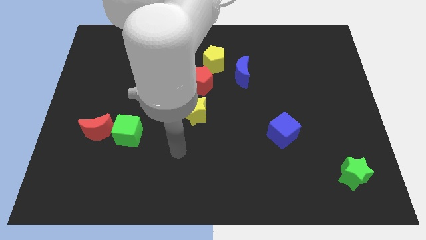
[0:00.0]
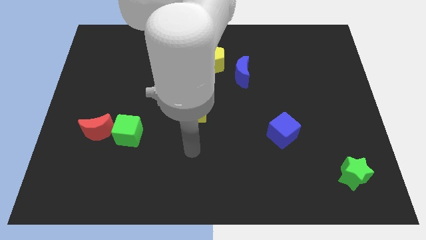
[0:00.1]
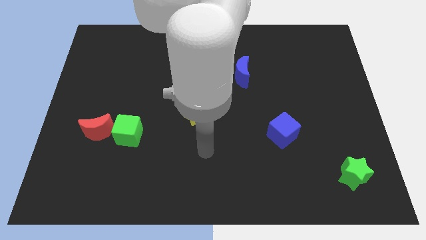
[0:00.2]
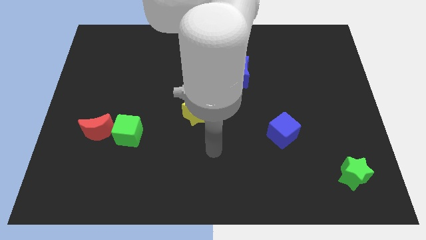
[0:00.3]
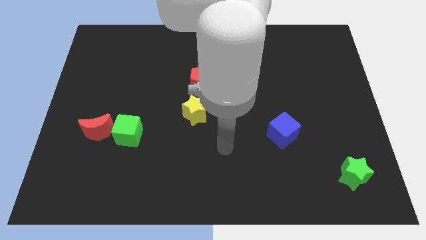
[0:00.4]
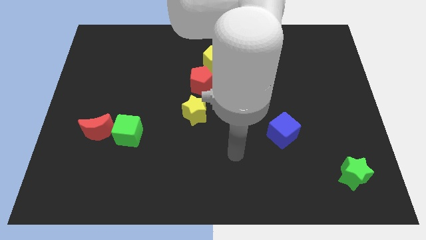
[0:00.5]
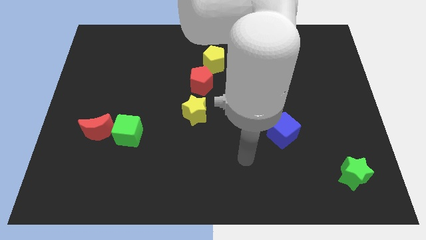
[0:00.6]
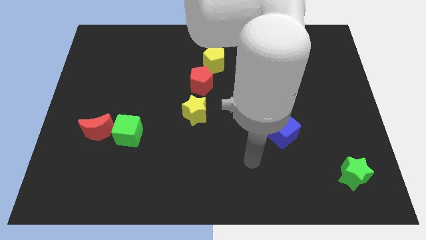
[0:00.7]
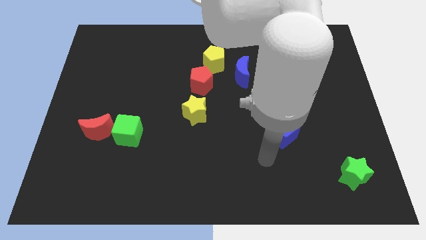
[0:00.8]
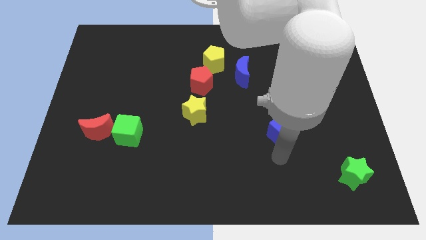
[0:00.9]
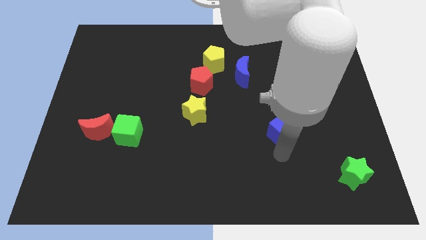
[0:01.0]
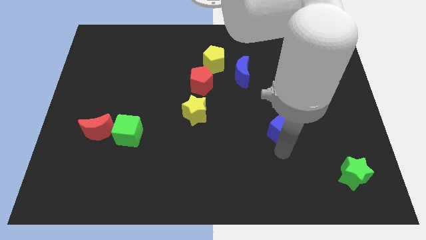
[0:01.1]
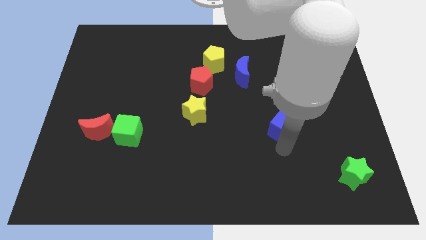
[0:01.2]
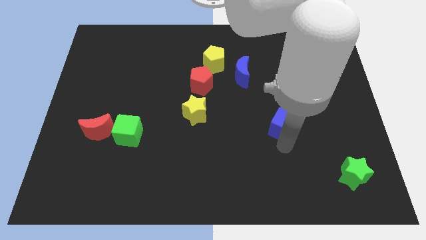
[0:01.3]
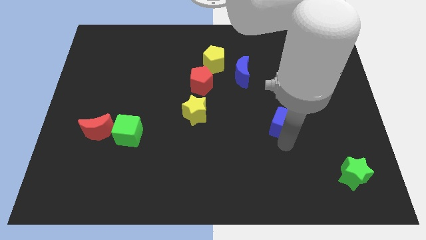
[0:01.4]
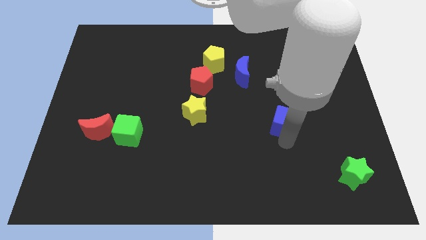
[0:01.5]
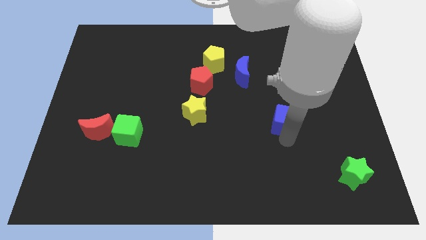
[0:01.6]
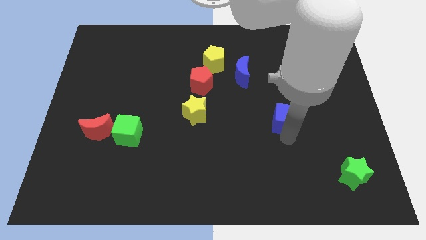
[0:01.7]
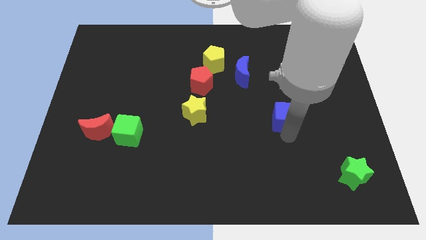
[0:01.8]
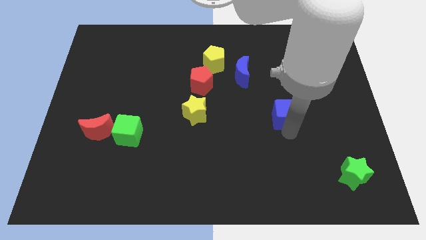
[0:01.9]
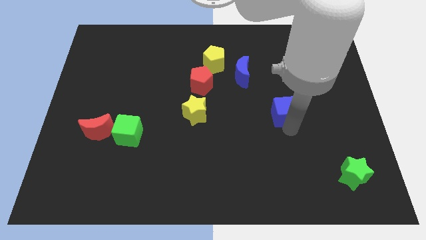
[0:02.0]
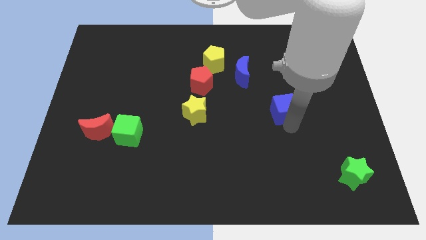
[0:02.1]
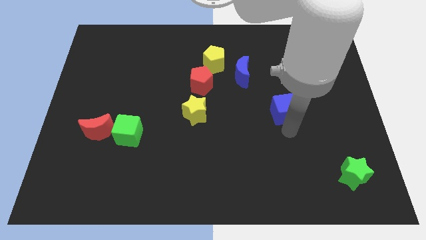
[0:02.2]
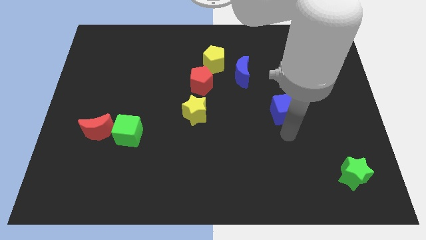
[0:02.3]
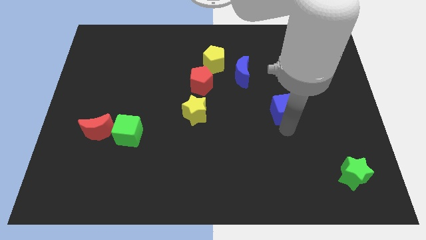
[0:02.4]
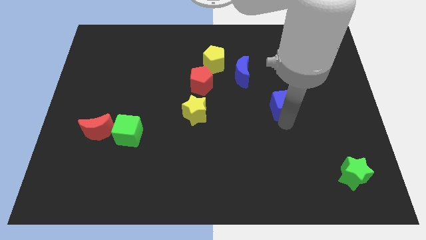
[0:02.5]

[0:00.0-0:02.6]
slightly push the blue cube upwards

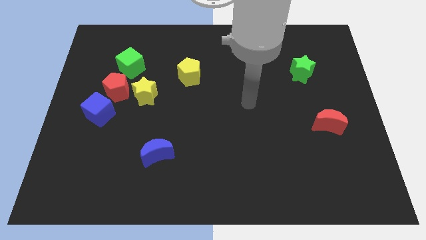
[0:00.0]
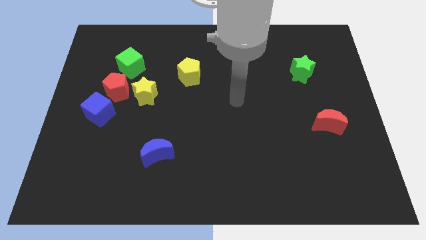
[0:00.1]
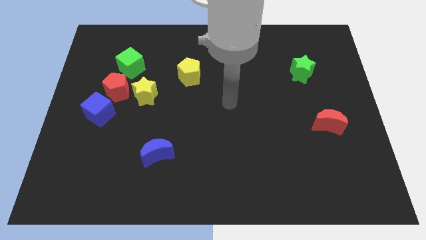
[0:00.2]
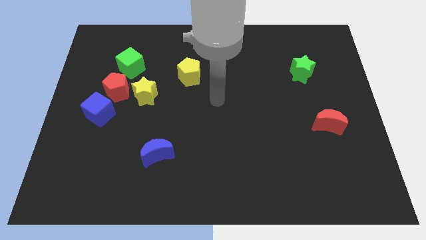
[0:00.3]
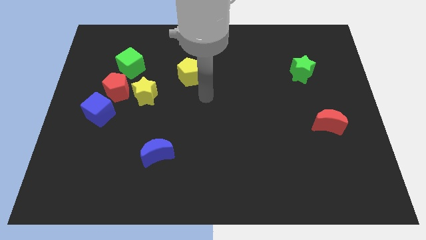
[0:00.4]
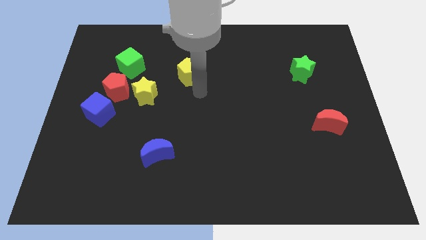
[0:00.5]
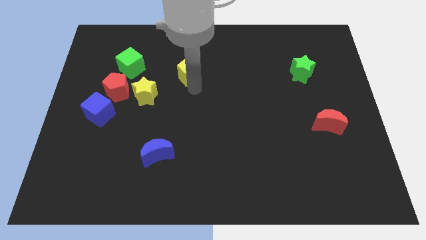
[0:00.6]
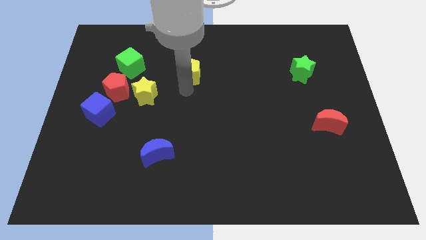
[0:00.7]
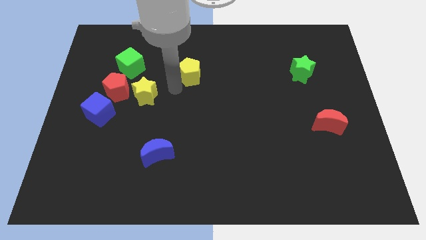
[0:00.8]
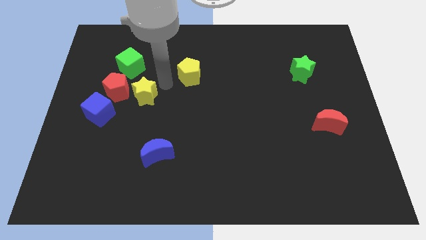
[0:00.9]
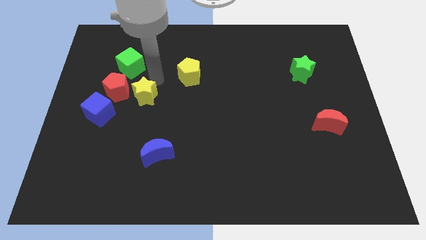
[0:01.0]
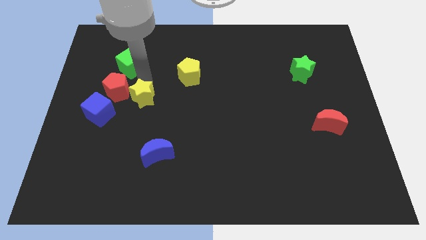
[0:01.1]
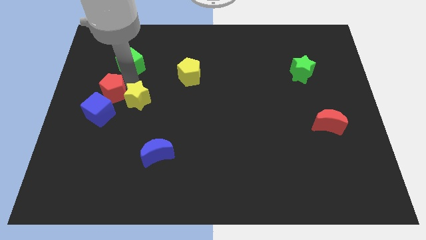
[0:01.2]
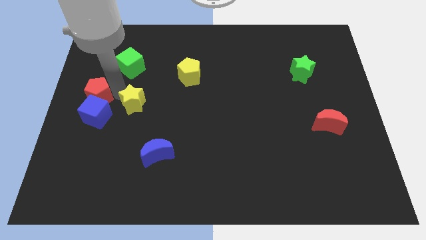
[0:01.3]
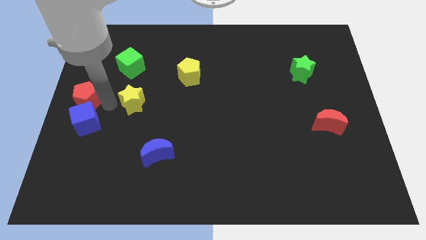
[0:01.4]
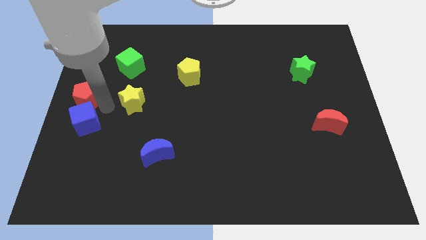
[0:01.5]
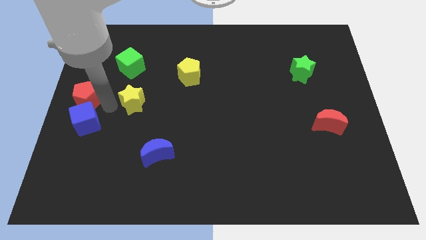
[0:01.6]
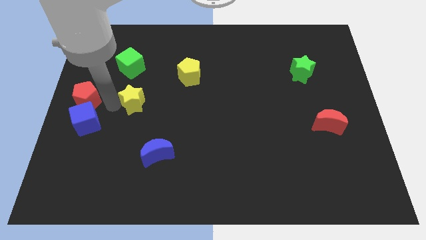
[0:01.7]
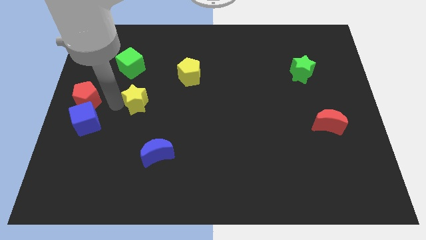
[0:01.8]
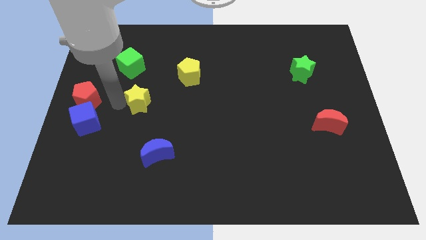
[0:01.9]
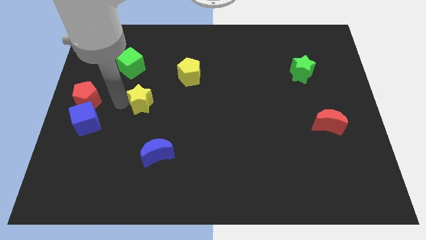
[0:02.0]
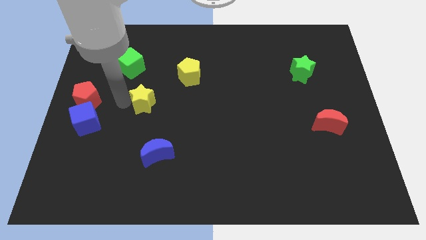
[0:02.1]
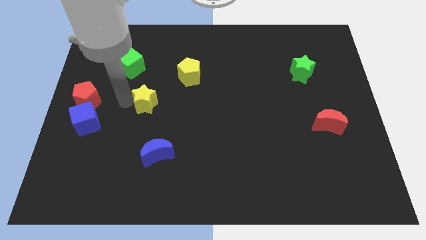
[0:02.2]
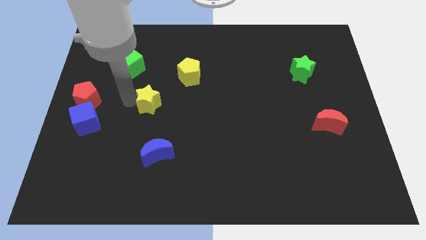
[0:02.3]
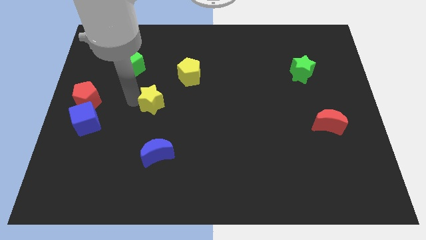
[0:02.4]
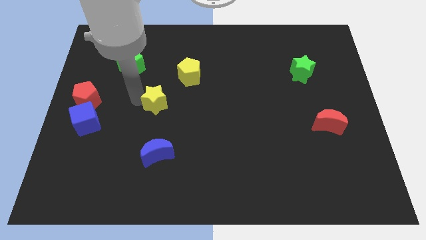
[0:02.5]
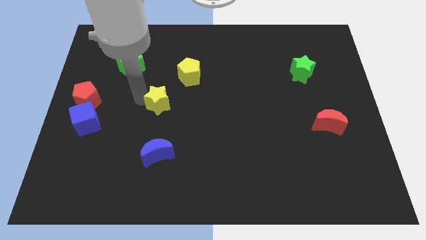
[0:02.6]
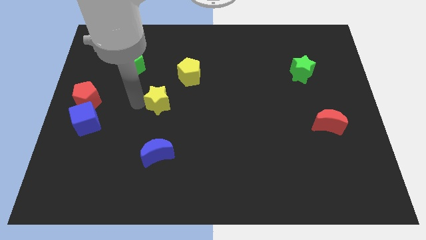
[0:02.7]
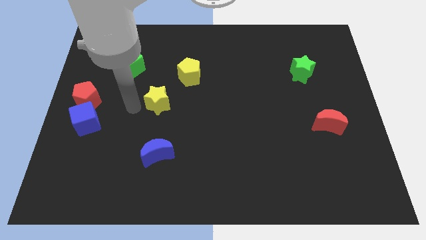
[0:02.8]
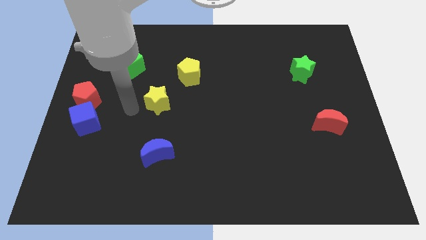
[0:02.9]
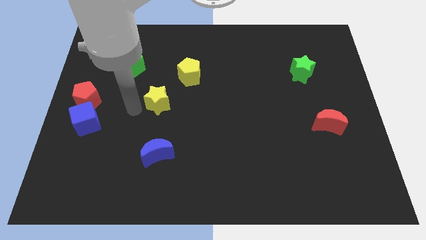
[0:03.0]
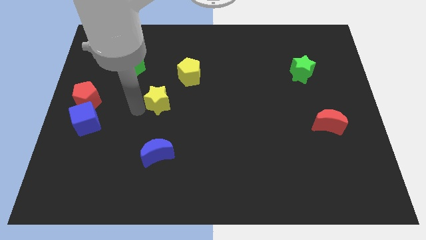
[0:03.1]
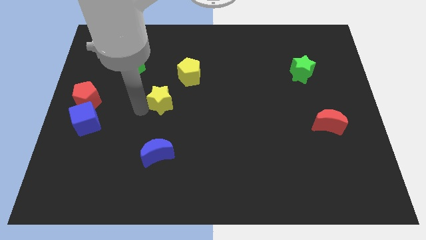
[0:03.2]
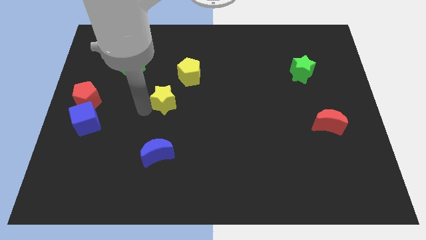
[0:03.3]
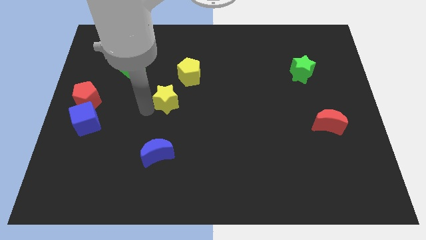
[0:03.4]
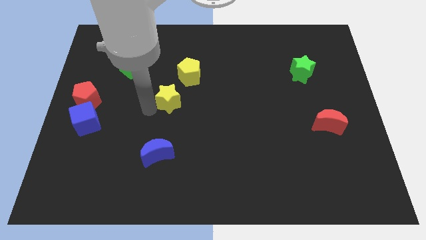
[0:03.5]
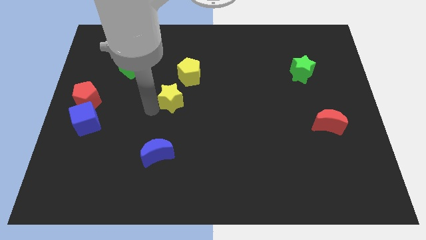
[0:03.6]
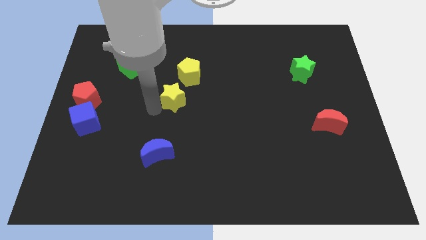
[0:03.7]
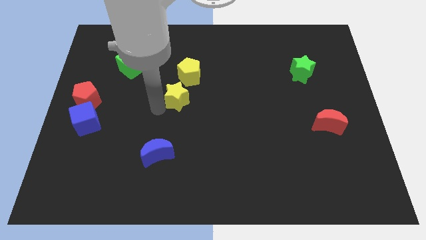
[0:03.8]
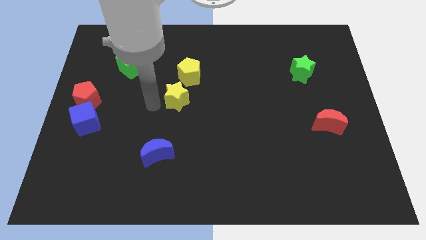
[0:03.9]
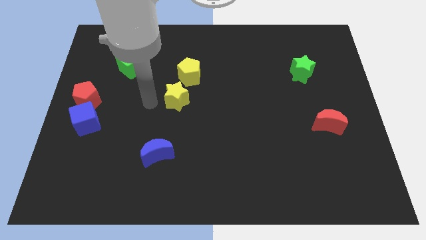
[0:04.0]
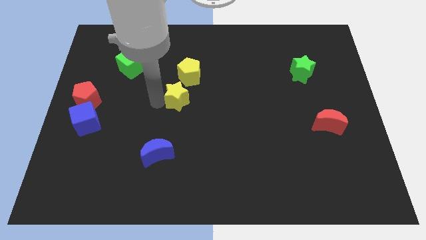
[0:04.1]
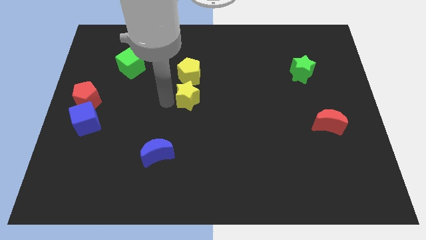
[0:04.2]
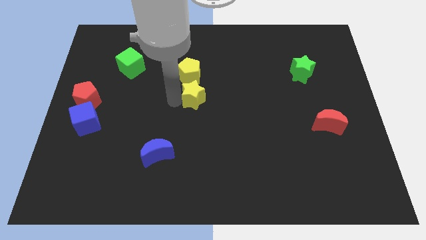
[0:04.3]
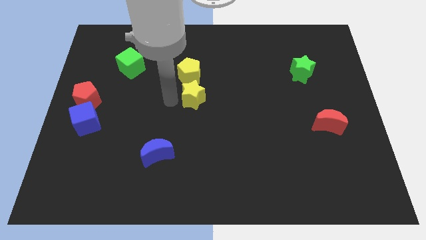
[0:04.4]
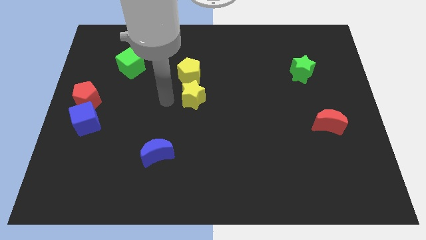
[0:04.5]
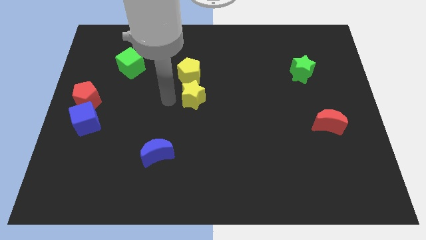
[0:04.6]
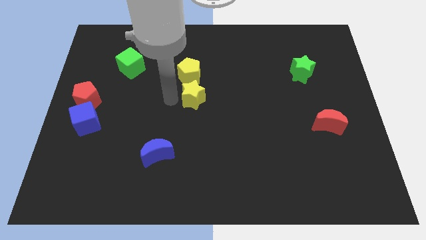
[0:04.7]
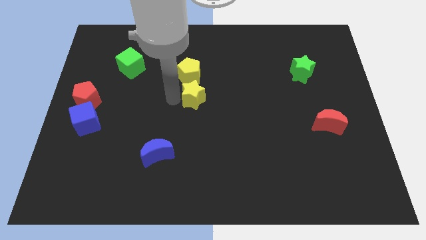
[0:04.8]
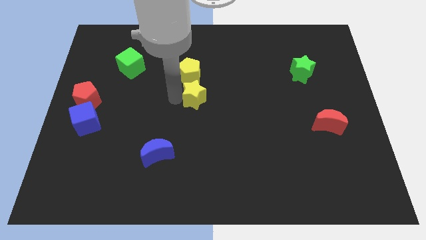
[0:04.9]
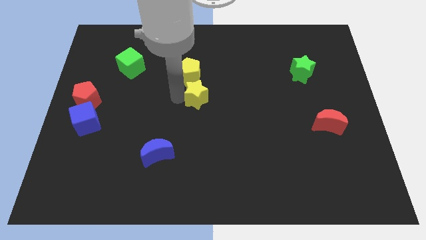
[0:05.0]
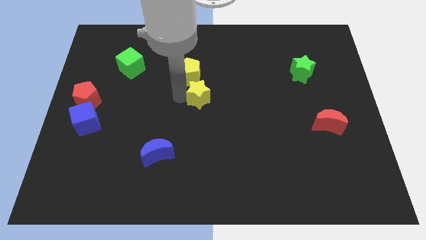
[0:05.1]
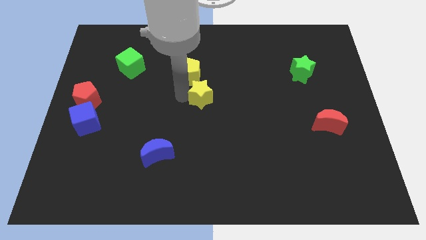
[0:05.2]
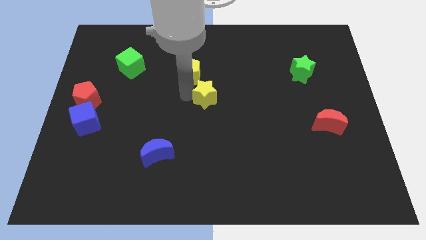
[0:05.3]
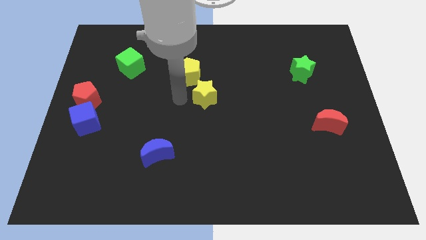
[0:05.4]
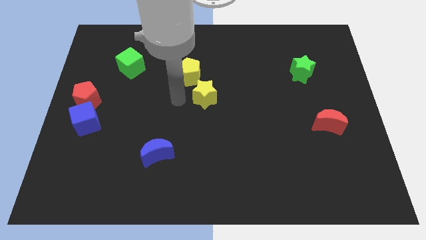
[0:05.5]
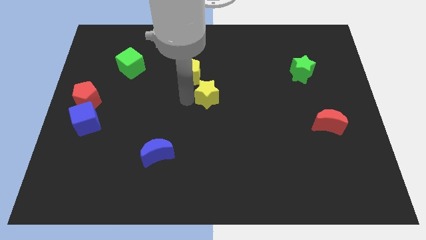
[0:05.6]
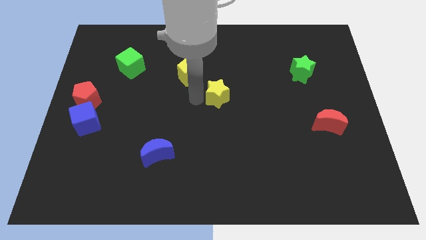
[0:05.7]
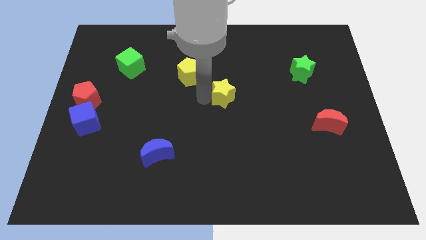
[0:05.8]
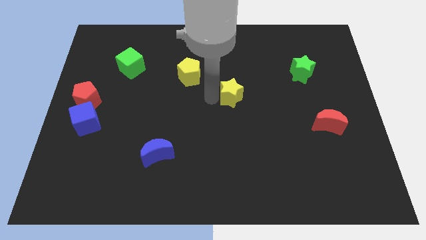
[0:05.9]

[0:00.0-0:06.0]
move the yellow star right
